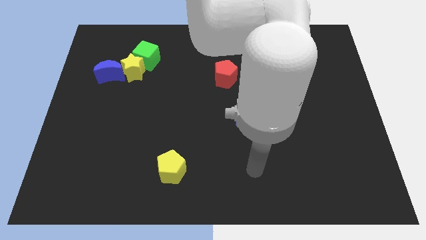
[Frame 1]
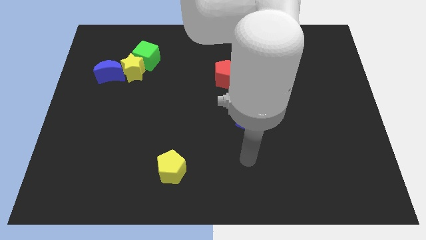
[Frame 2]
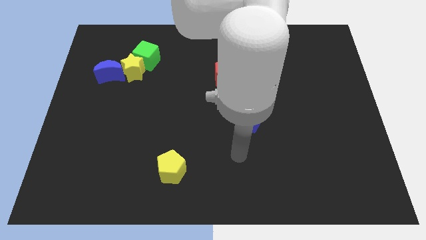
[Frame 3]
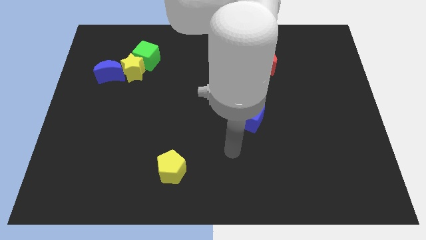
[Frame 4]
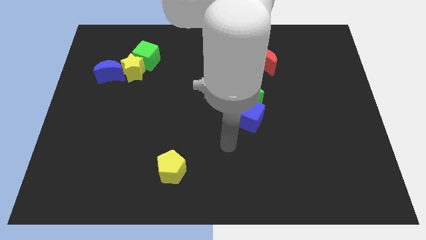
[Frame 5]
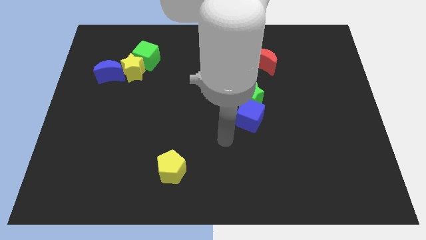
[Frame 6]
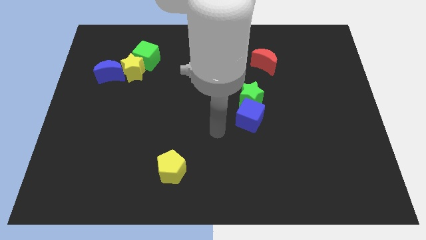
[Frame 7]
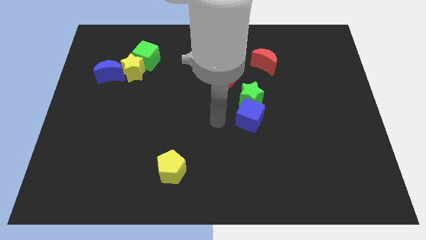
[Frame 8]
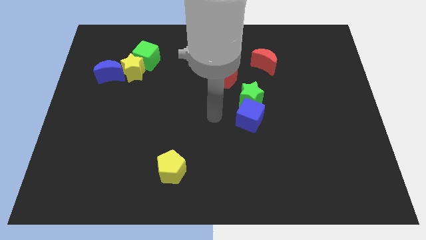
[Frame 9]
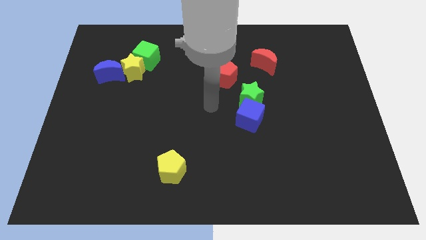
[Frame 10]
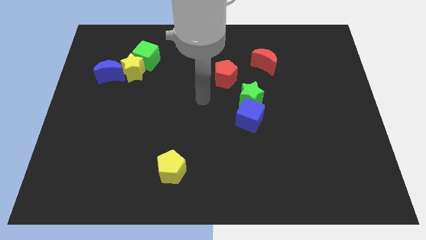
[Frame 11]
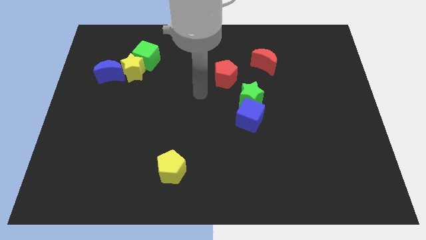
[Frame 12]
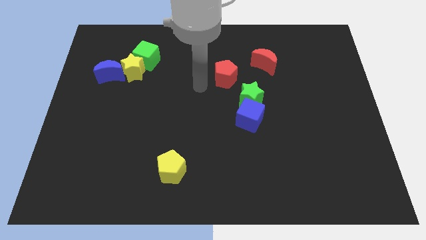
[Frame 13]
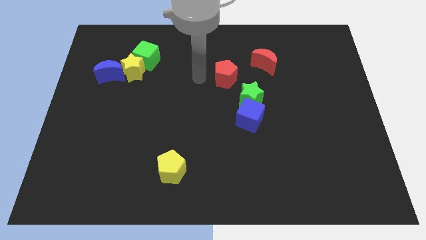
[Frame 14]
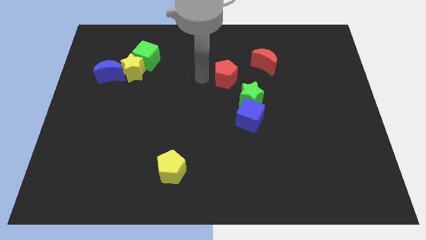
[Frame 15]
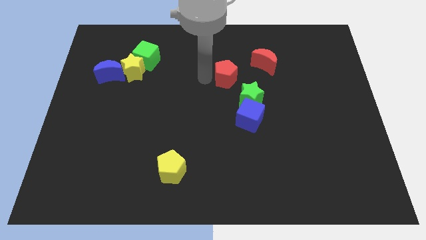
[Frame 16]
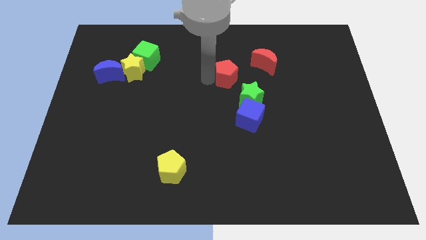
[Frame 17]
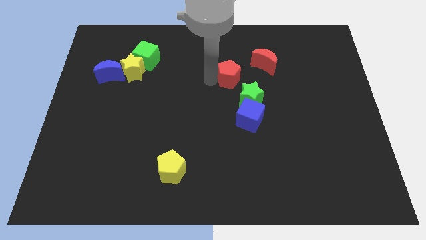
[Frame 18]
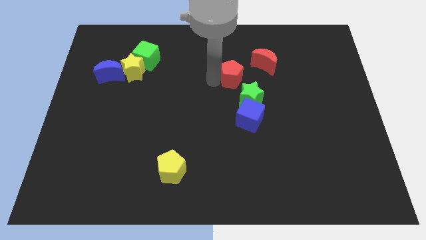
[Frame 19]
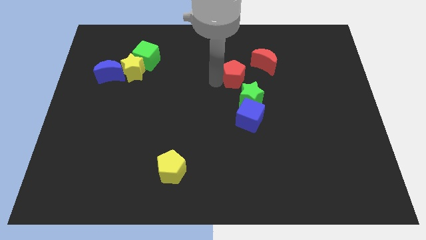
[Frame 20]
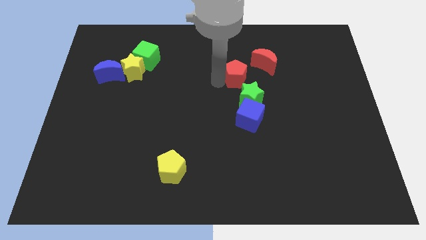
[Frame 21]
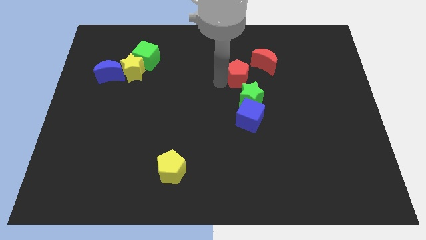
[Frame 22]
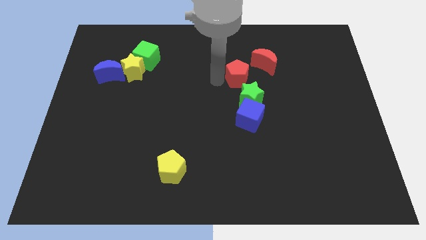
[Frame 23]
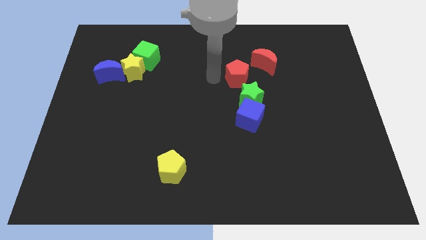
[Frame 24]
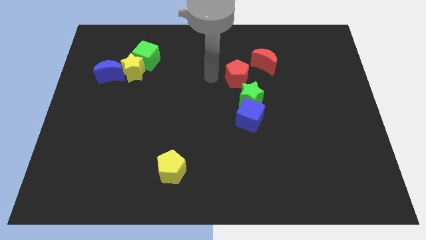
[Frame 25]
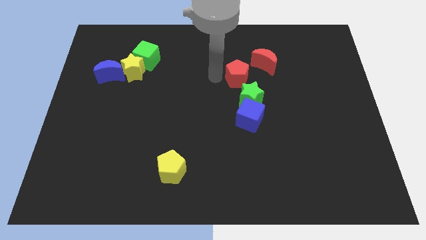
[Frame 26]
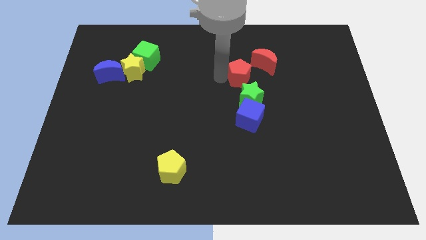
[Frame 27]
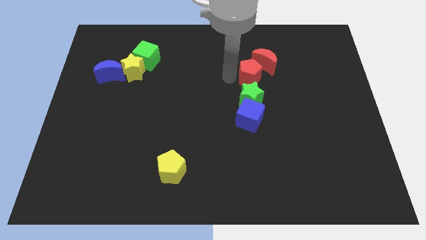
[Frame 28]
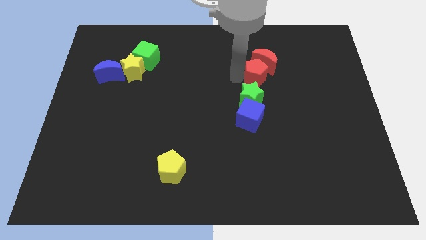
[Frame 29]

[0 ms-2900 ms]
slightly slide the red pentagon to the right

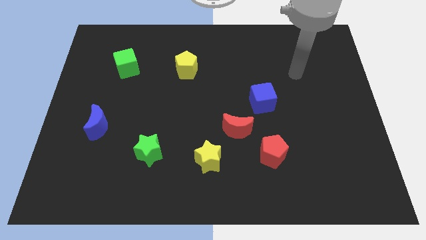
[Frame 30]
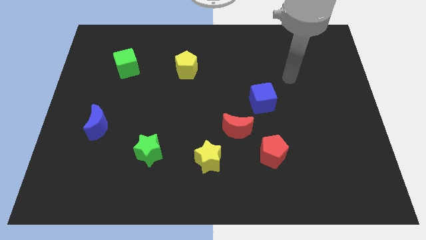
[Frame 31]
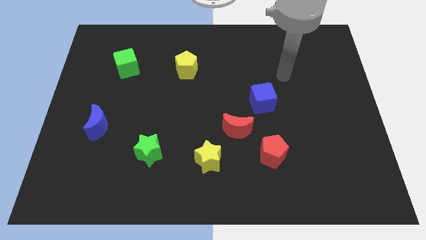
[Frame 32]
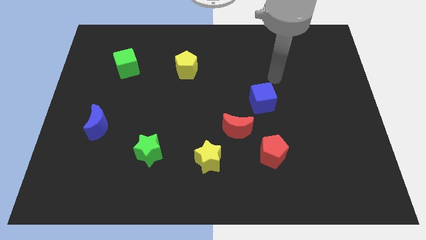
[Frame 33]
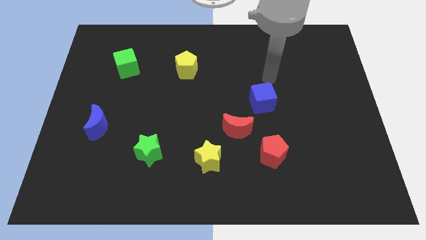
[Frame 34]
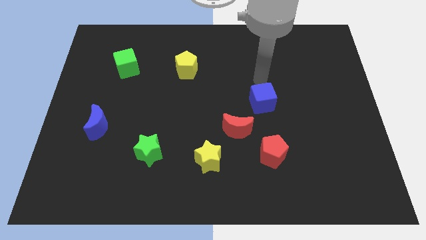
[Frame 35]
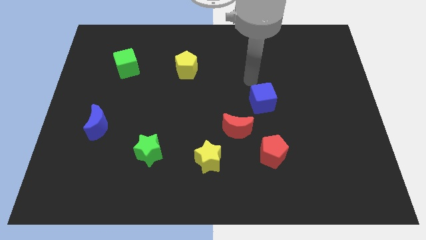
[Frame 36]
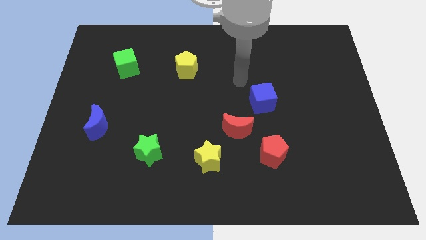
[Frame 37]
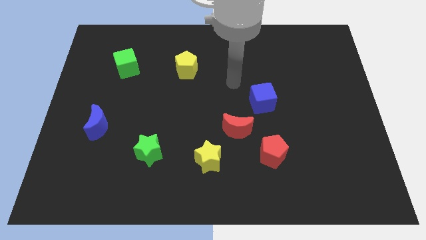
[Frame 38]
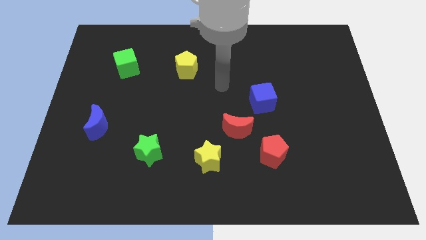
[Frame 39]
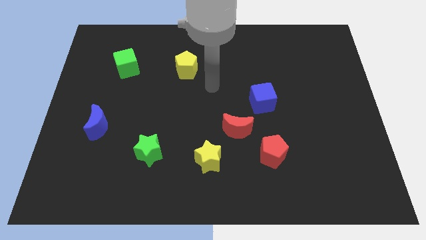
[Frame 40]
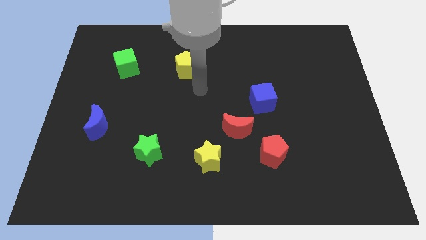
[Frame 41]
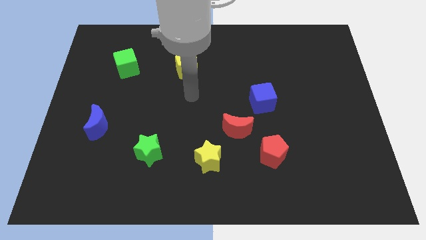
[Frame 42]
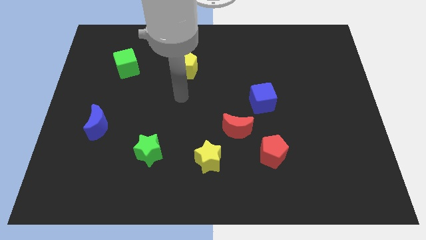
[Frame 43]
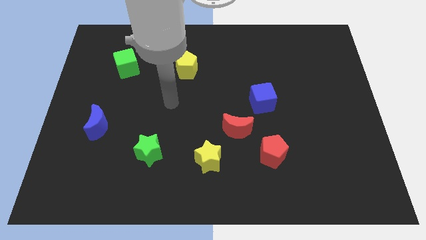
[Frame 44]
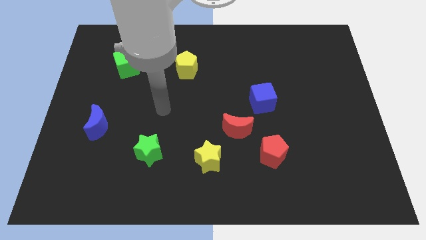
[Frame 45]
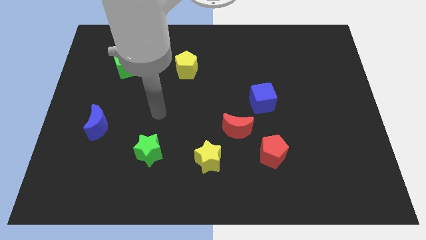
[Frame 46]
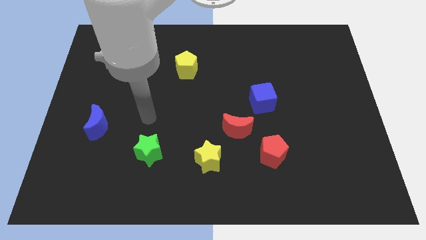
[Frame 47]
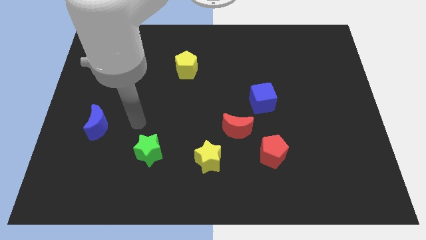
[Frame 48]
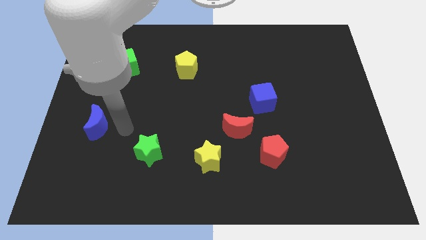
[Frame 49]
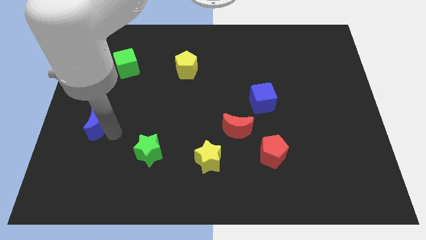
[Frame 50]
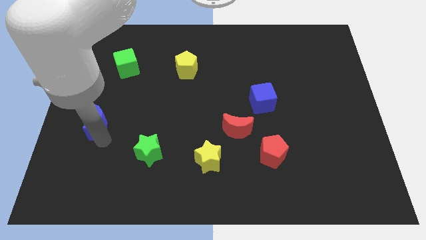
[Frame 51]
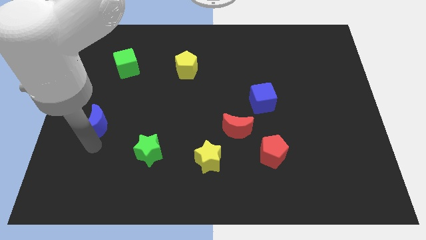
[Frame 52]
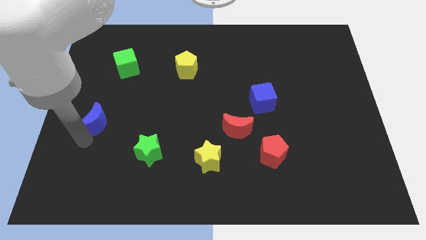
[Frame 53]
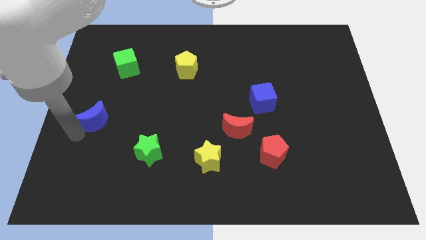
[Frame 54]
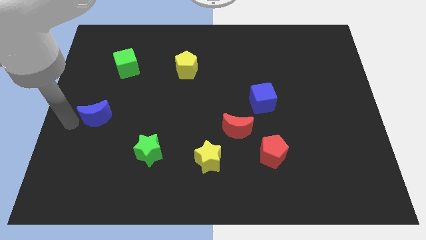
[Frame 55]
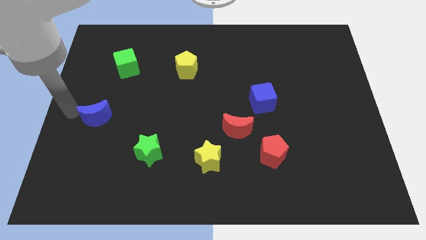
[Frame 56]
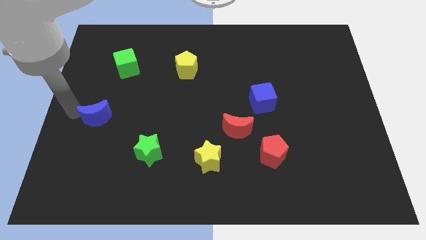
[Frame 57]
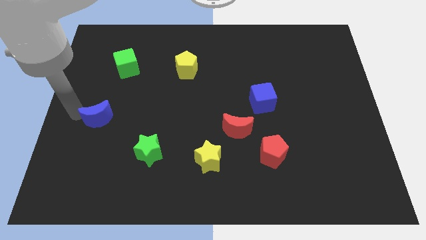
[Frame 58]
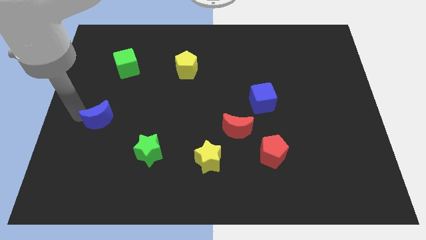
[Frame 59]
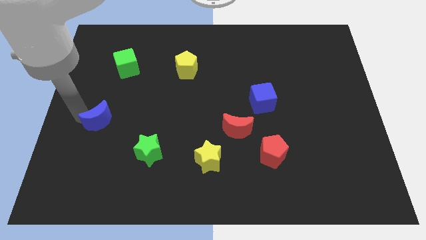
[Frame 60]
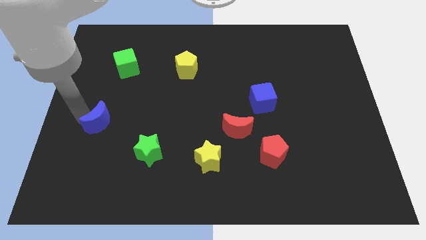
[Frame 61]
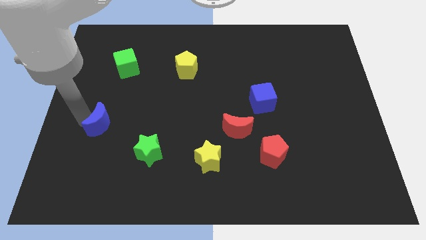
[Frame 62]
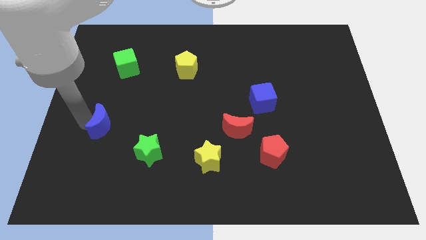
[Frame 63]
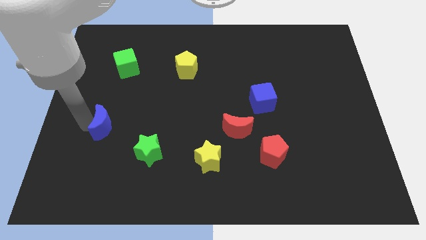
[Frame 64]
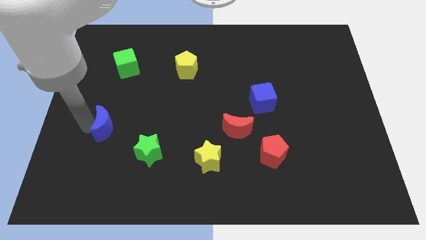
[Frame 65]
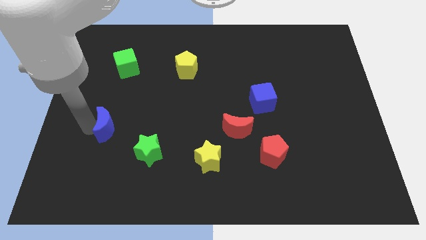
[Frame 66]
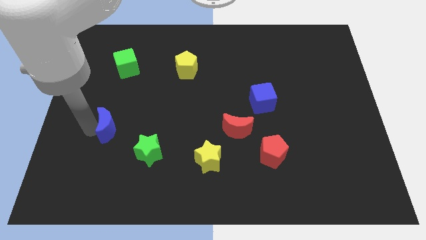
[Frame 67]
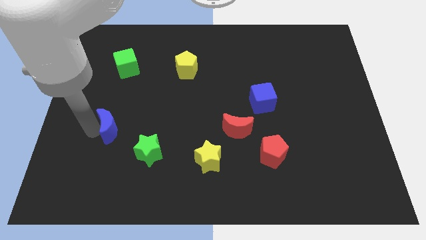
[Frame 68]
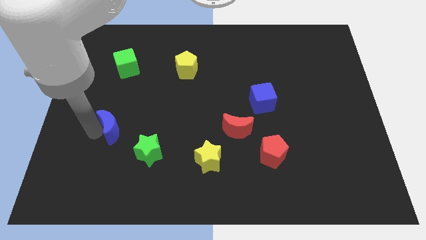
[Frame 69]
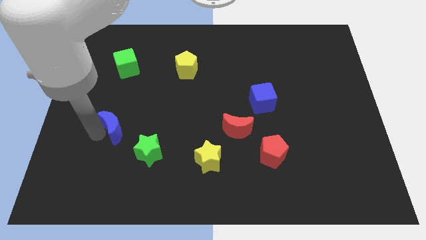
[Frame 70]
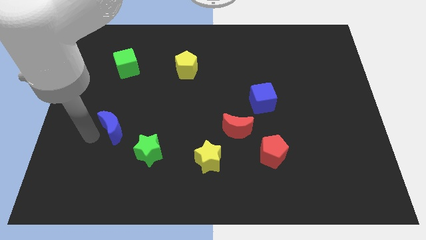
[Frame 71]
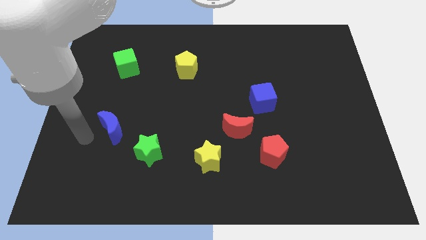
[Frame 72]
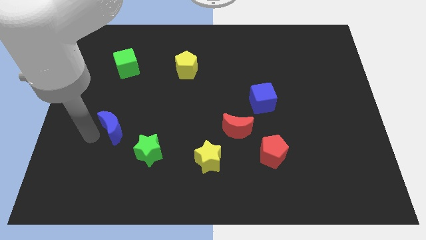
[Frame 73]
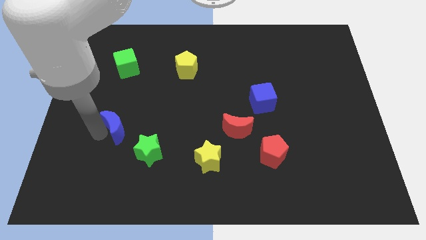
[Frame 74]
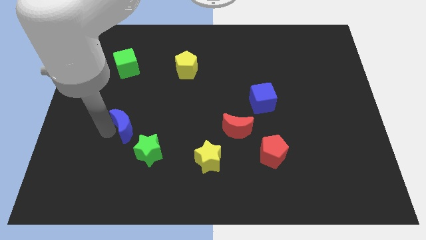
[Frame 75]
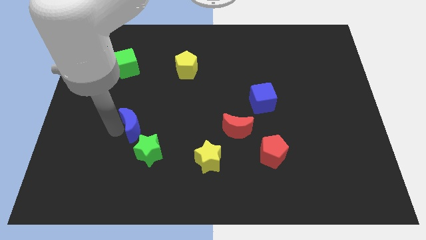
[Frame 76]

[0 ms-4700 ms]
slightly push the blue moon right
